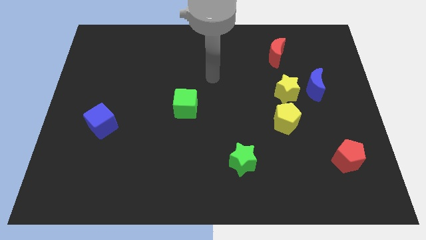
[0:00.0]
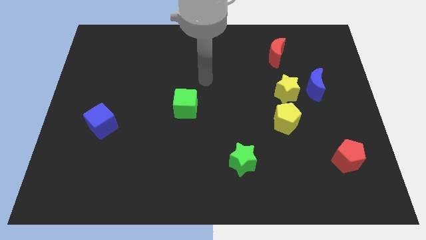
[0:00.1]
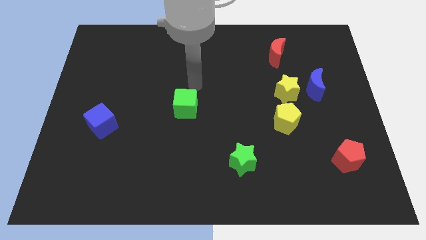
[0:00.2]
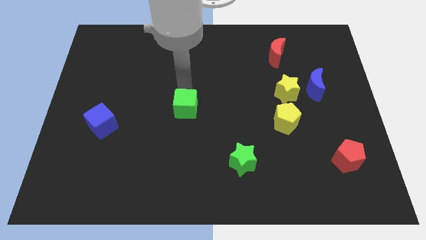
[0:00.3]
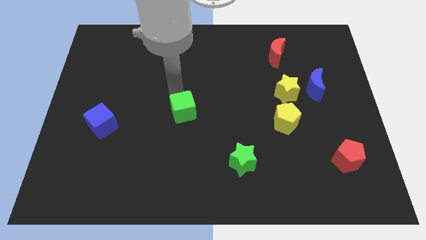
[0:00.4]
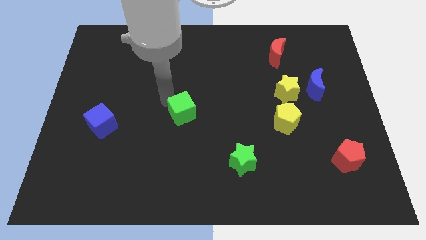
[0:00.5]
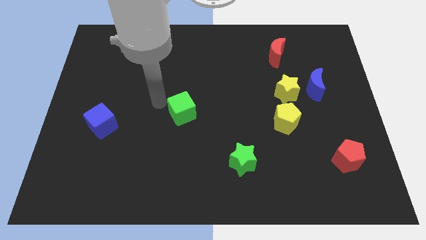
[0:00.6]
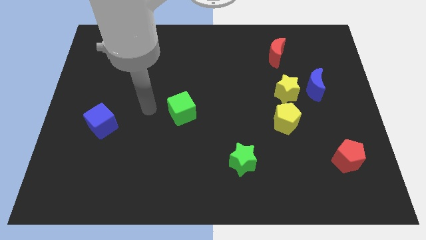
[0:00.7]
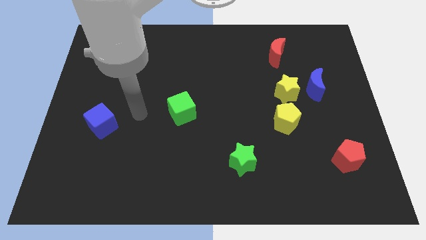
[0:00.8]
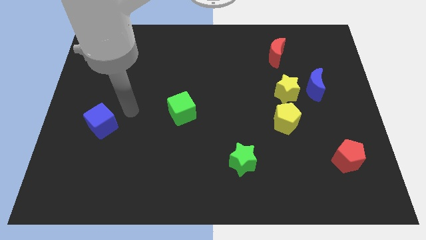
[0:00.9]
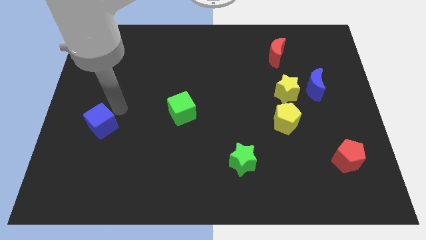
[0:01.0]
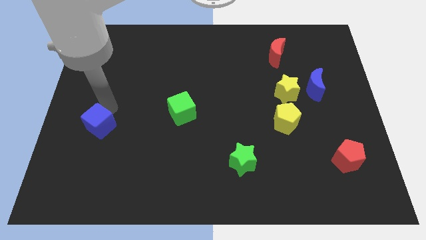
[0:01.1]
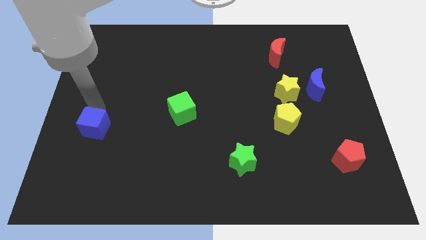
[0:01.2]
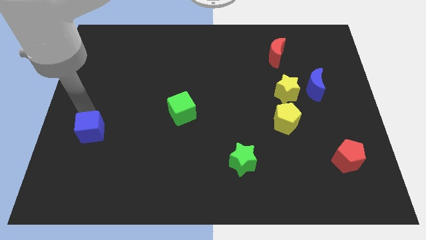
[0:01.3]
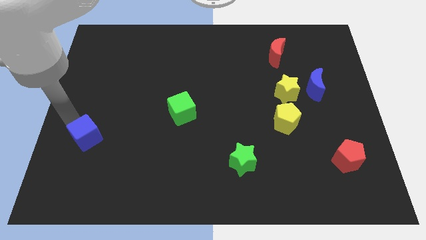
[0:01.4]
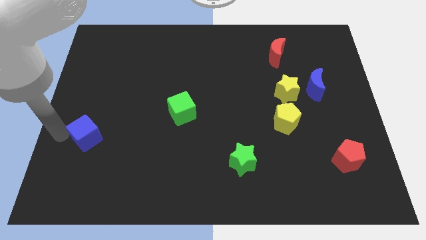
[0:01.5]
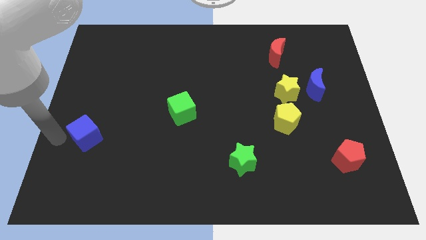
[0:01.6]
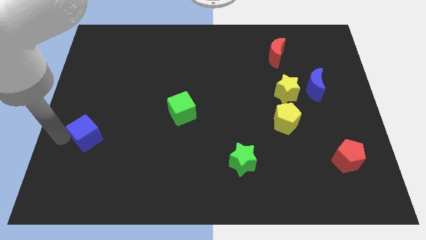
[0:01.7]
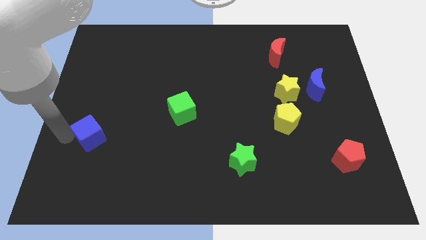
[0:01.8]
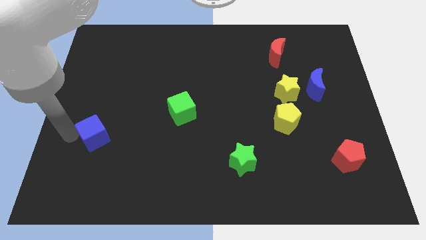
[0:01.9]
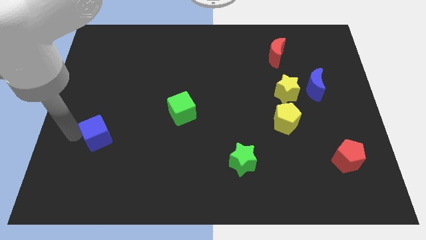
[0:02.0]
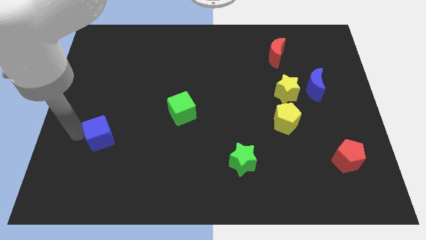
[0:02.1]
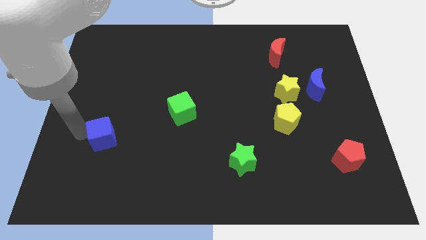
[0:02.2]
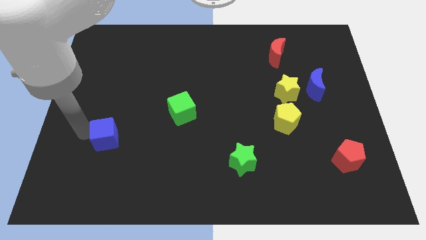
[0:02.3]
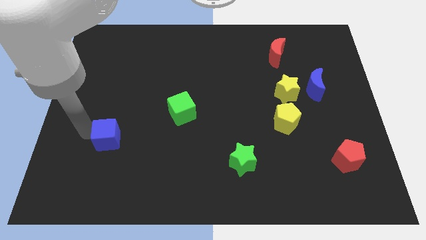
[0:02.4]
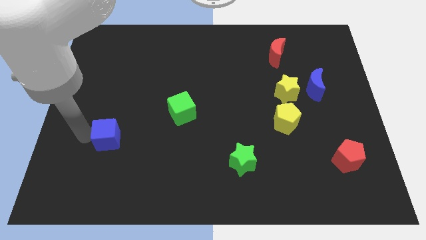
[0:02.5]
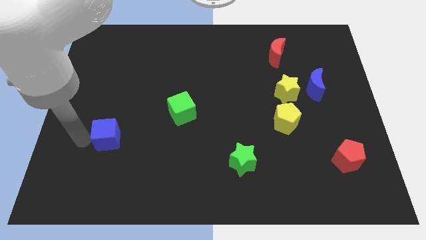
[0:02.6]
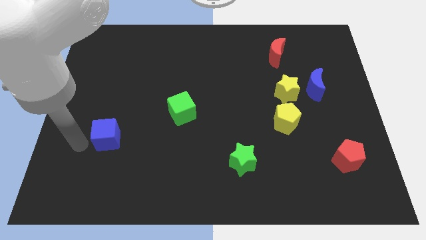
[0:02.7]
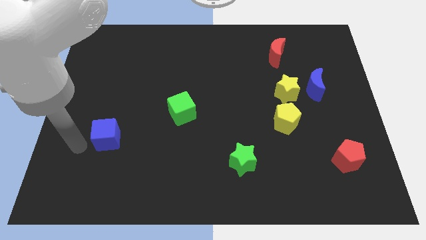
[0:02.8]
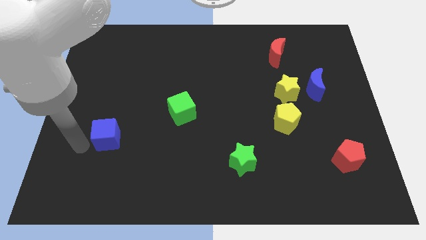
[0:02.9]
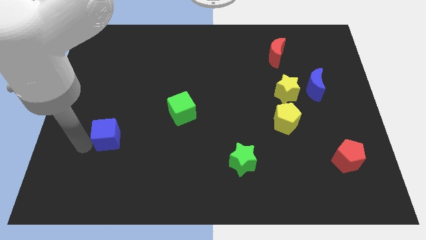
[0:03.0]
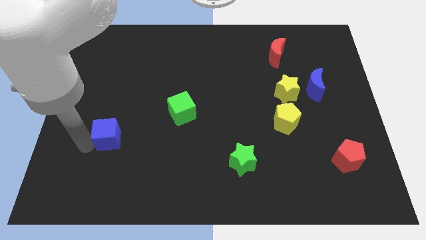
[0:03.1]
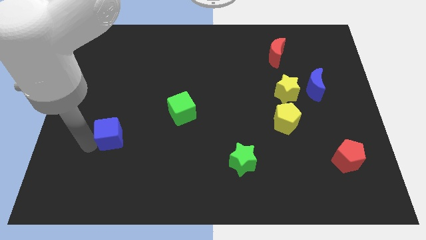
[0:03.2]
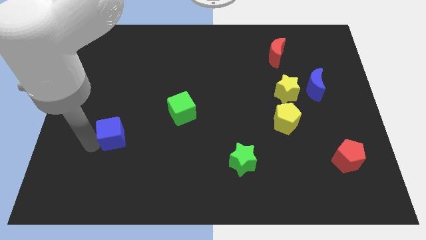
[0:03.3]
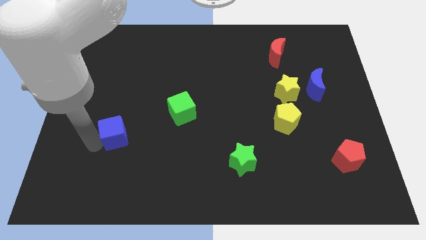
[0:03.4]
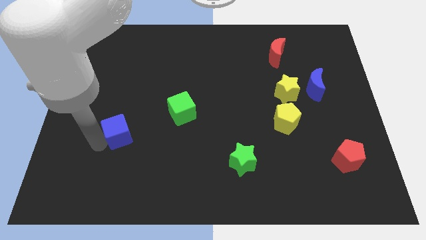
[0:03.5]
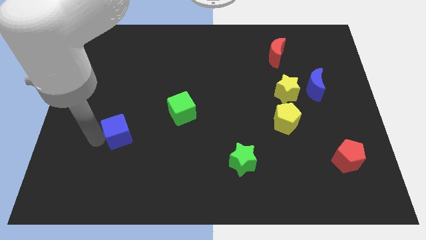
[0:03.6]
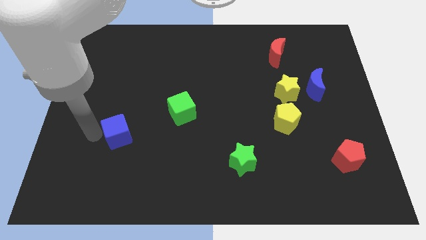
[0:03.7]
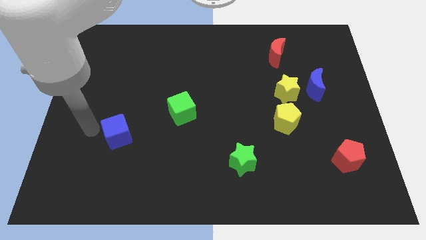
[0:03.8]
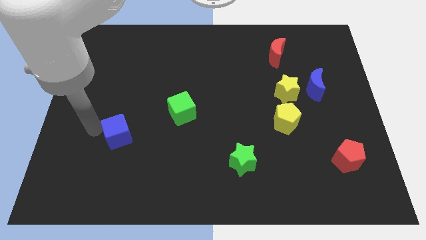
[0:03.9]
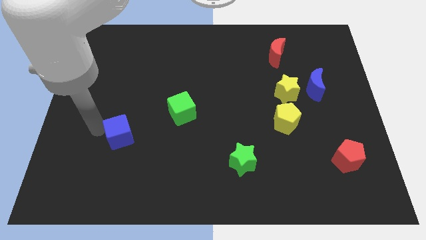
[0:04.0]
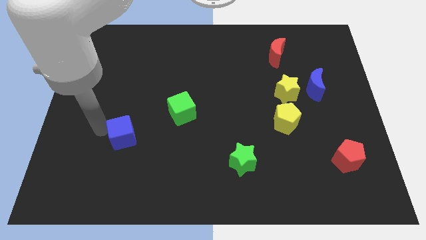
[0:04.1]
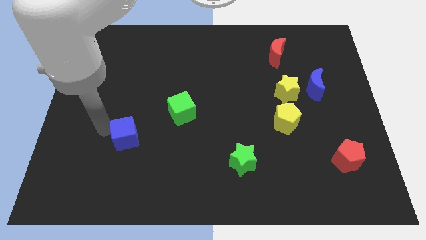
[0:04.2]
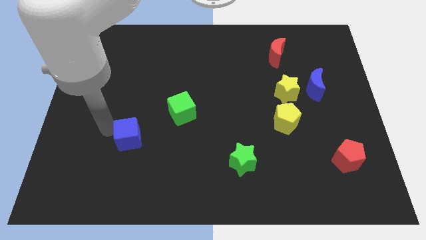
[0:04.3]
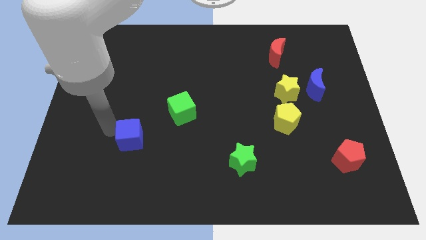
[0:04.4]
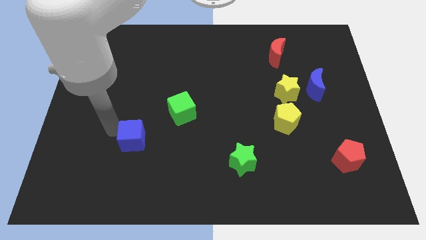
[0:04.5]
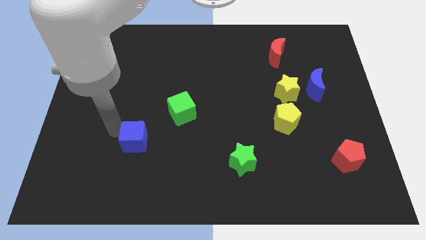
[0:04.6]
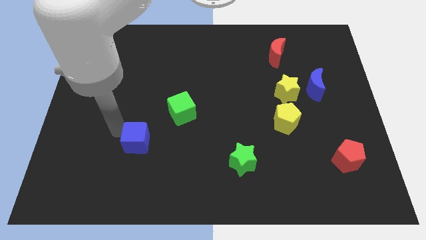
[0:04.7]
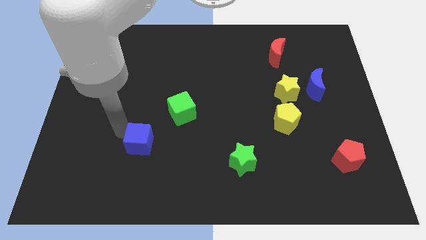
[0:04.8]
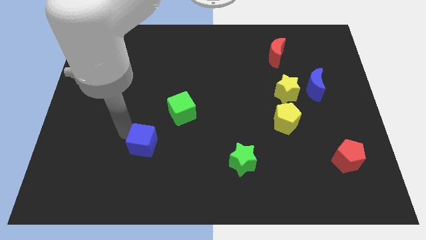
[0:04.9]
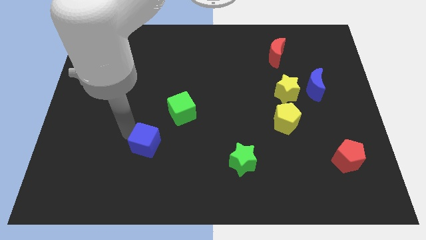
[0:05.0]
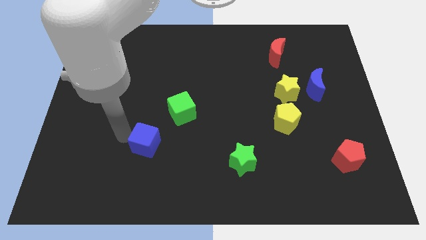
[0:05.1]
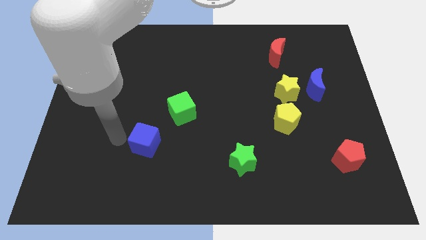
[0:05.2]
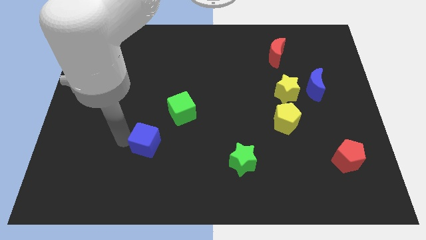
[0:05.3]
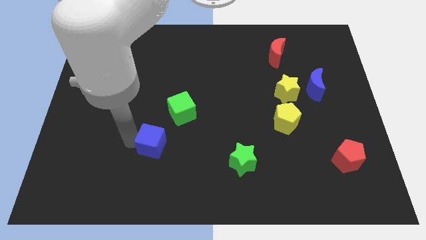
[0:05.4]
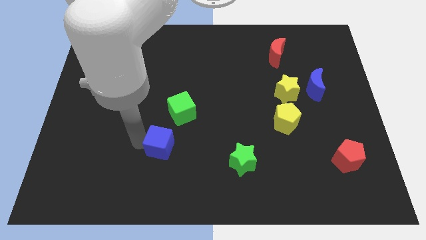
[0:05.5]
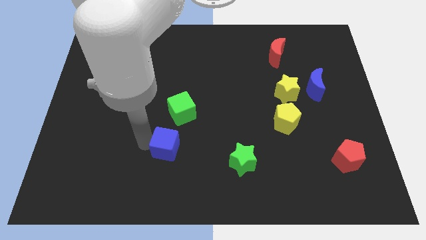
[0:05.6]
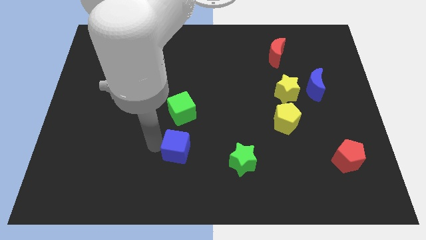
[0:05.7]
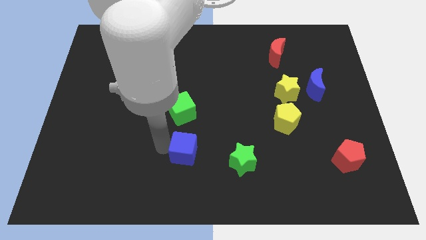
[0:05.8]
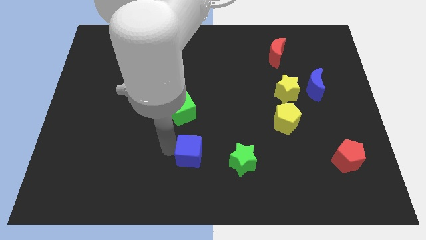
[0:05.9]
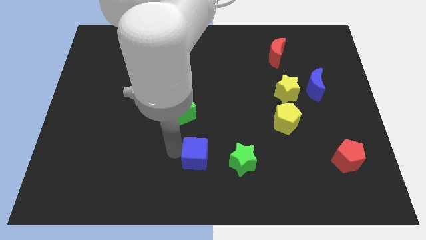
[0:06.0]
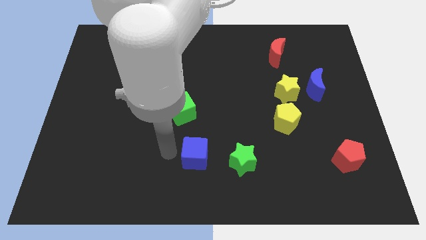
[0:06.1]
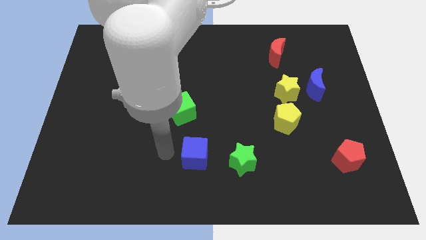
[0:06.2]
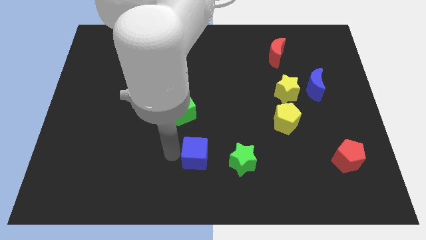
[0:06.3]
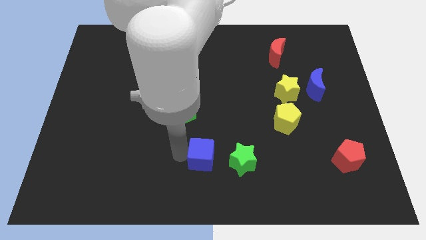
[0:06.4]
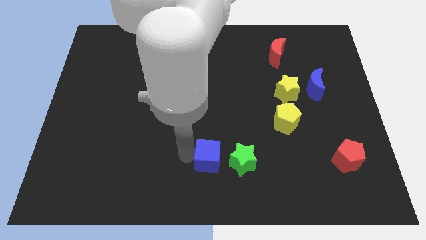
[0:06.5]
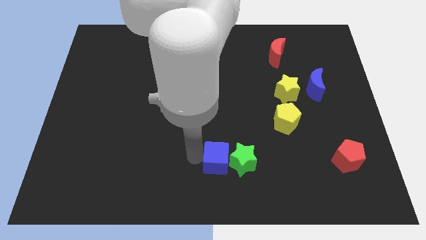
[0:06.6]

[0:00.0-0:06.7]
move the blue cube next to the green star

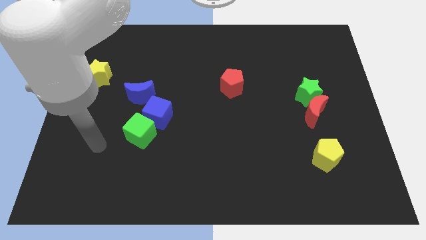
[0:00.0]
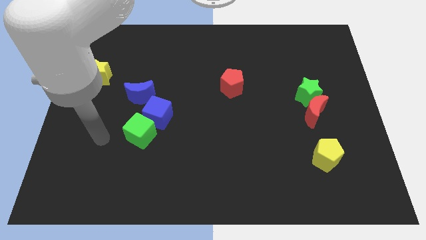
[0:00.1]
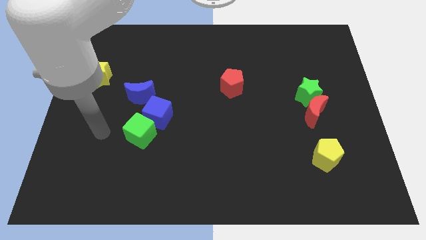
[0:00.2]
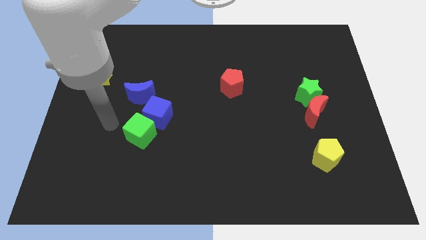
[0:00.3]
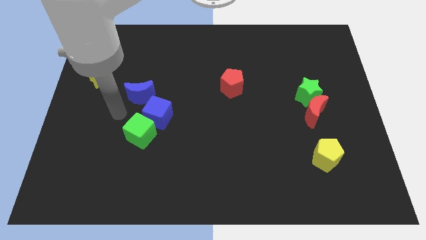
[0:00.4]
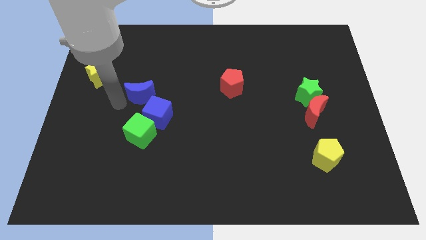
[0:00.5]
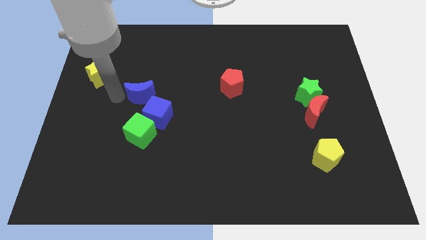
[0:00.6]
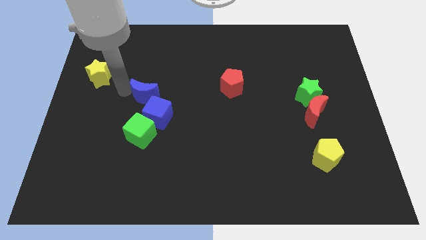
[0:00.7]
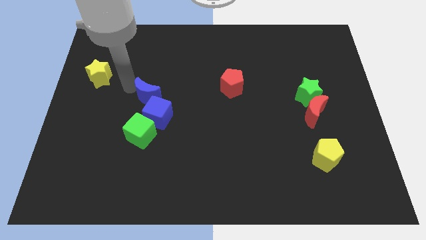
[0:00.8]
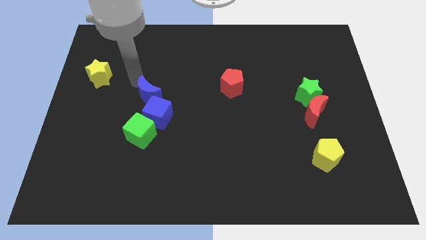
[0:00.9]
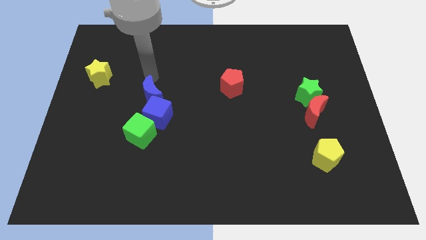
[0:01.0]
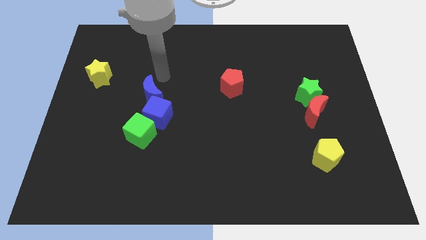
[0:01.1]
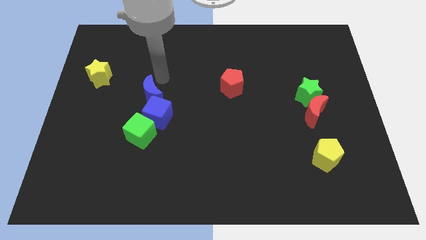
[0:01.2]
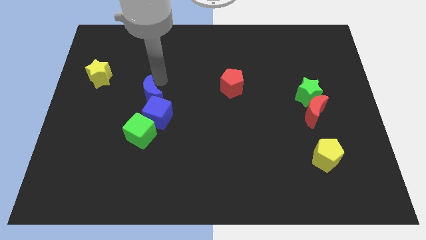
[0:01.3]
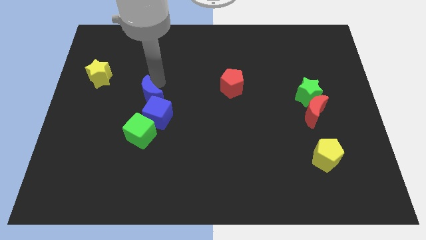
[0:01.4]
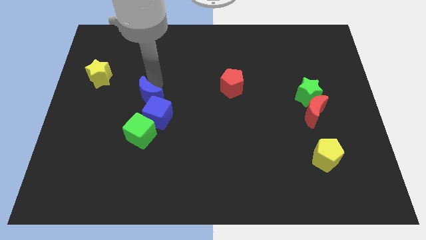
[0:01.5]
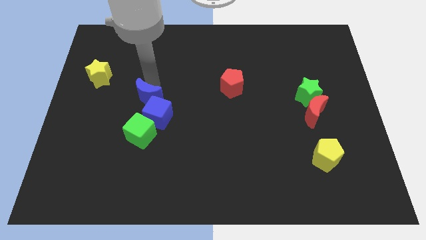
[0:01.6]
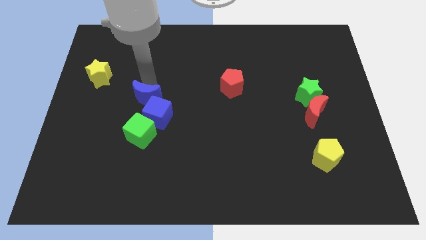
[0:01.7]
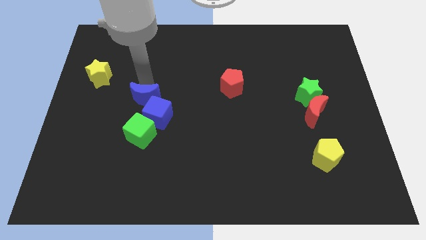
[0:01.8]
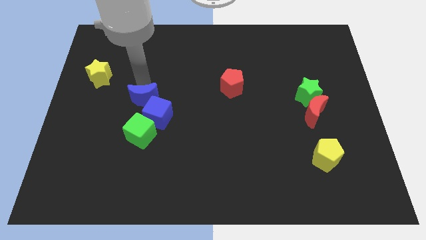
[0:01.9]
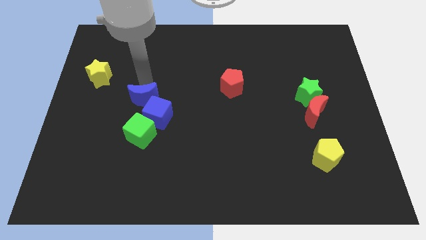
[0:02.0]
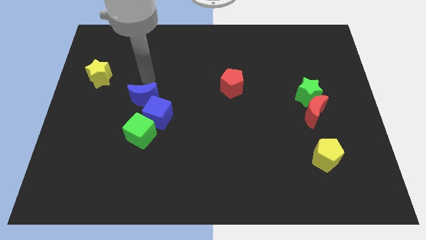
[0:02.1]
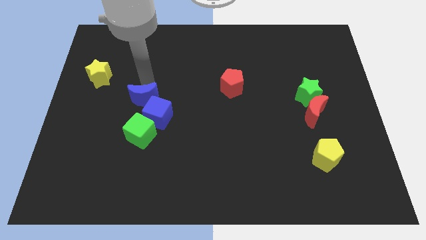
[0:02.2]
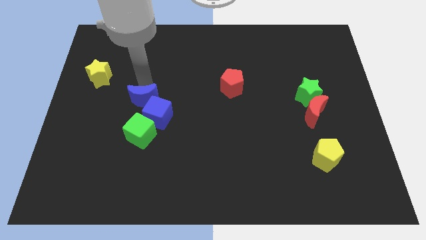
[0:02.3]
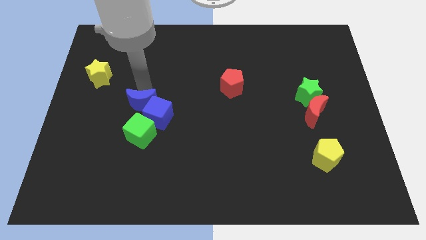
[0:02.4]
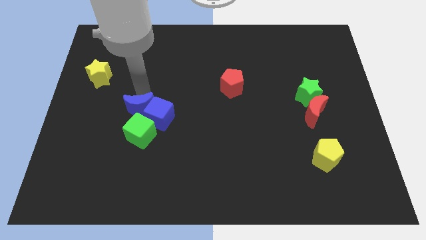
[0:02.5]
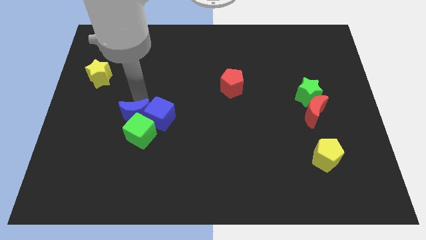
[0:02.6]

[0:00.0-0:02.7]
push the blue moon to the green cube
